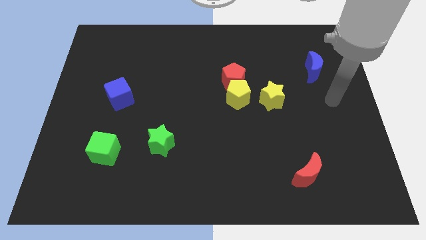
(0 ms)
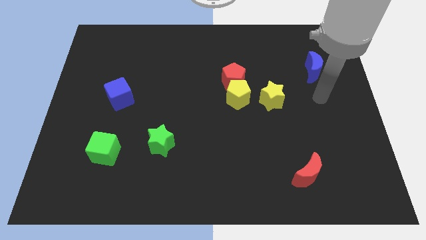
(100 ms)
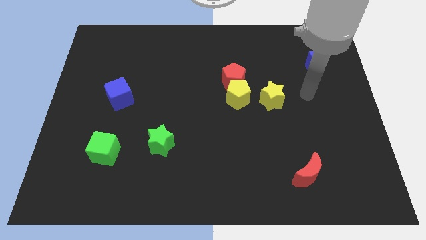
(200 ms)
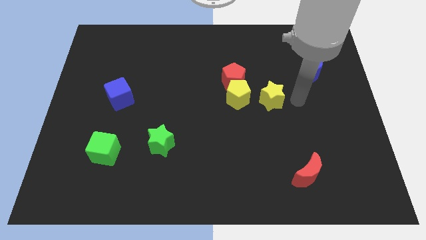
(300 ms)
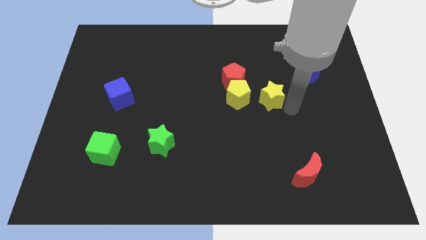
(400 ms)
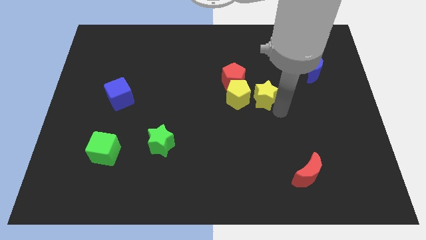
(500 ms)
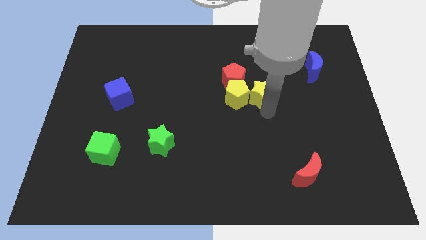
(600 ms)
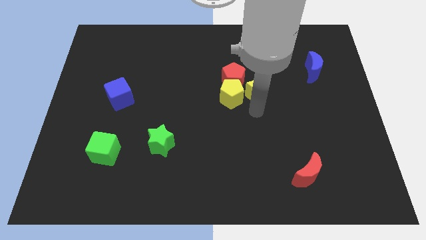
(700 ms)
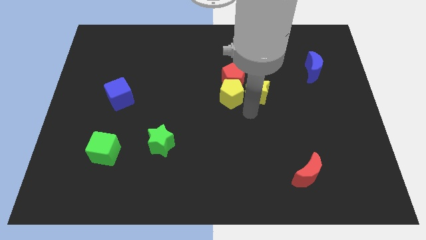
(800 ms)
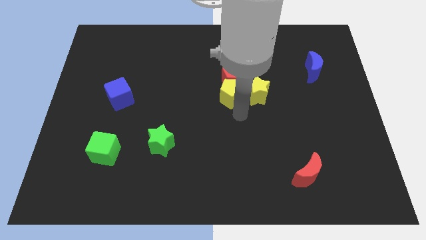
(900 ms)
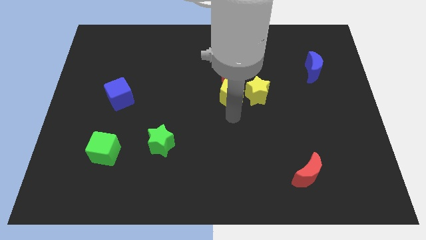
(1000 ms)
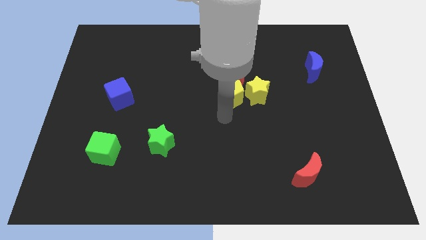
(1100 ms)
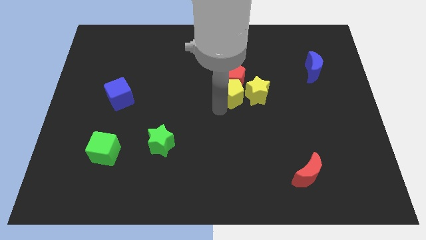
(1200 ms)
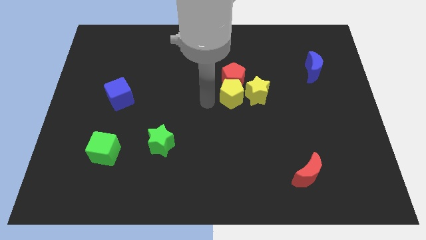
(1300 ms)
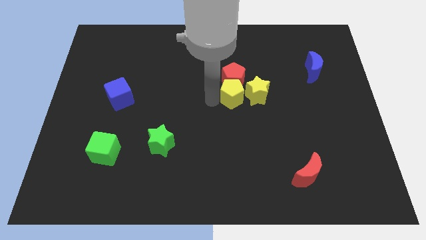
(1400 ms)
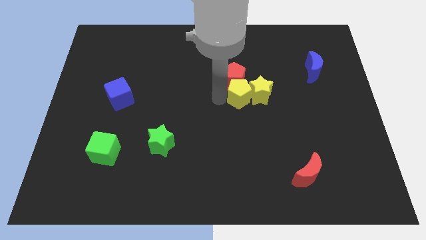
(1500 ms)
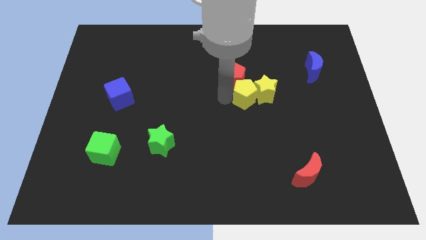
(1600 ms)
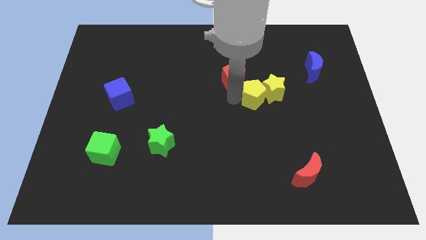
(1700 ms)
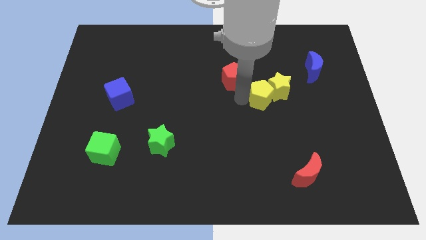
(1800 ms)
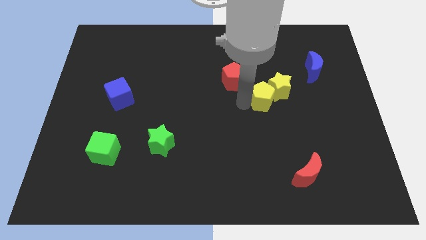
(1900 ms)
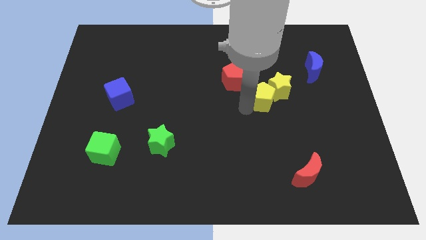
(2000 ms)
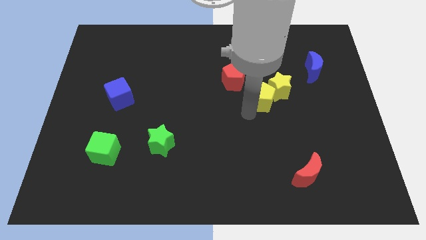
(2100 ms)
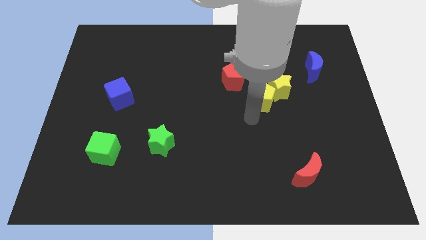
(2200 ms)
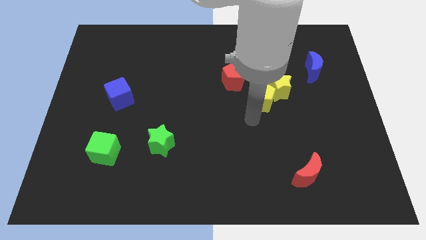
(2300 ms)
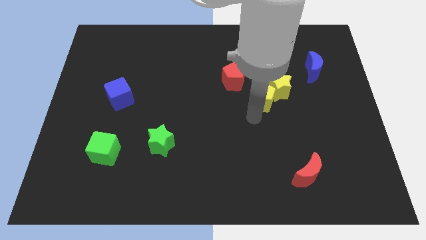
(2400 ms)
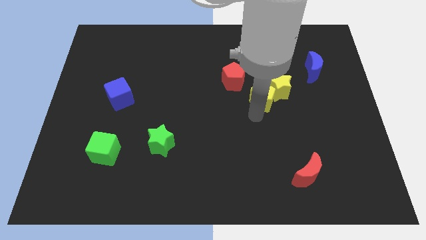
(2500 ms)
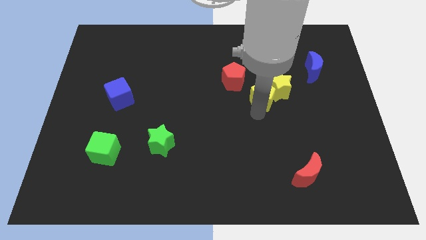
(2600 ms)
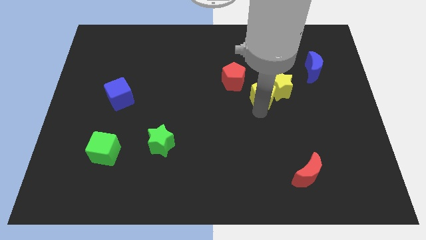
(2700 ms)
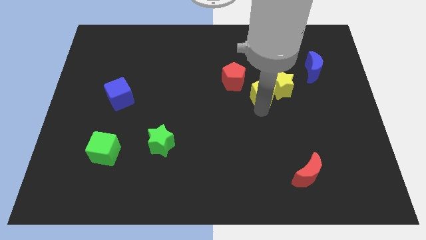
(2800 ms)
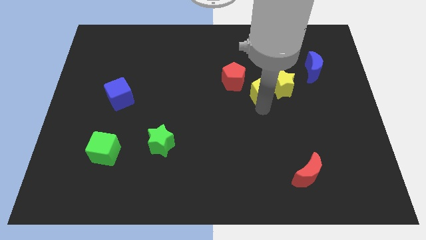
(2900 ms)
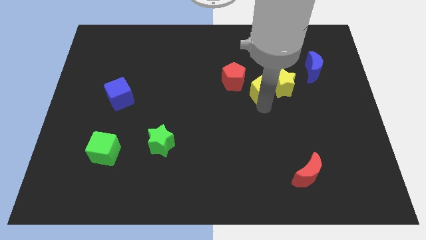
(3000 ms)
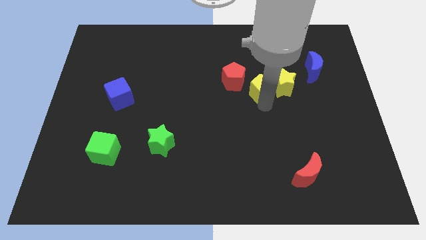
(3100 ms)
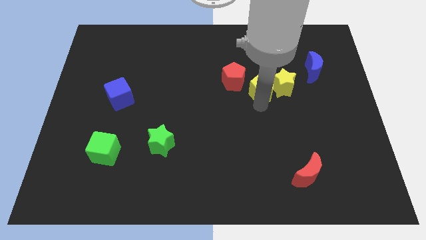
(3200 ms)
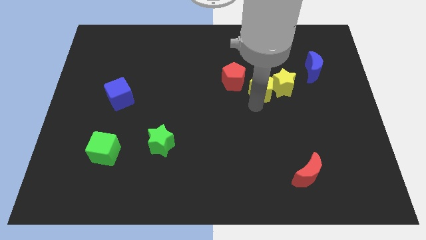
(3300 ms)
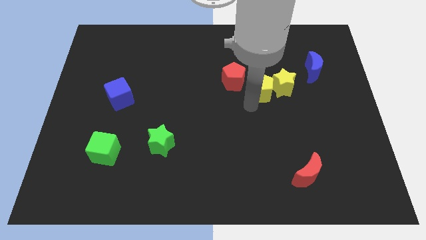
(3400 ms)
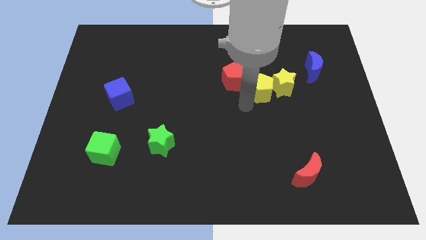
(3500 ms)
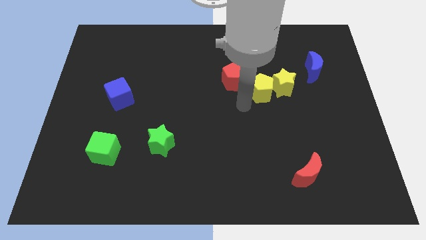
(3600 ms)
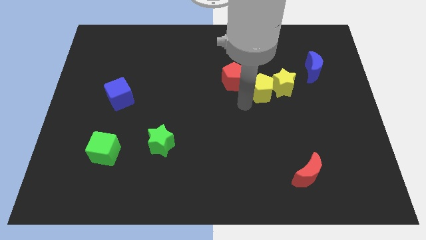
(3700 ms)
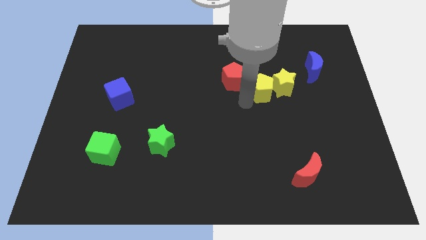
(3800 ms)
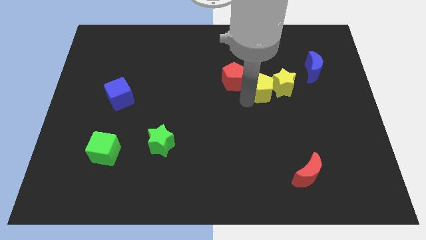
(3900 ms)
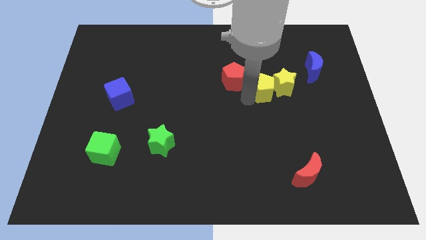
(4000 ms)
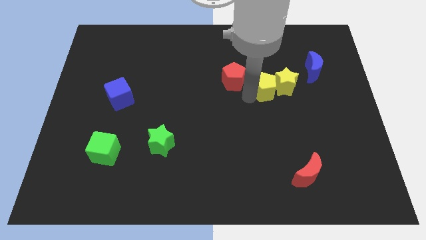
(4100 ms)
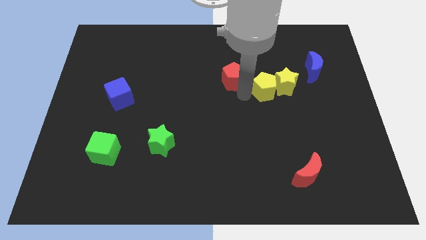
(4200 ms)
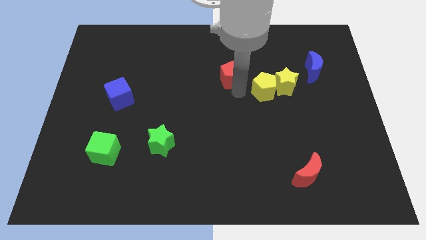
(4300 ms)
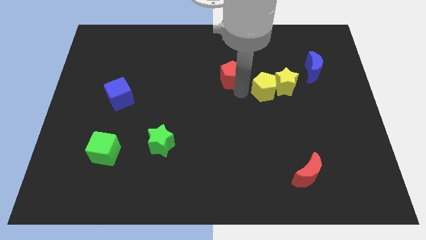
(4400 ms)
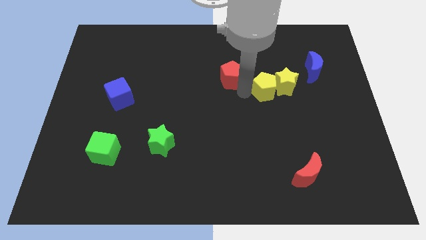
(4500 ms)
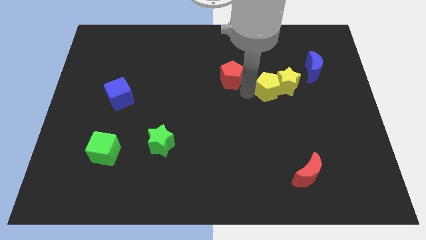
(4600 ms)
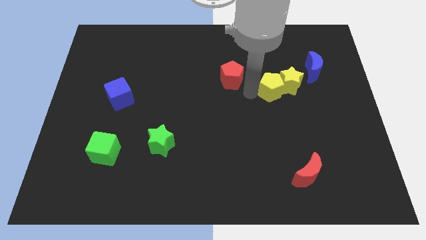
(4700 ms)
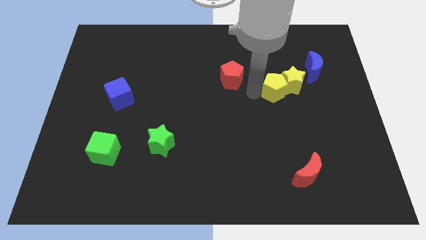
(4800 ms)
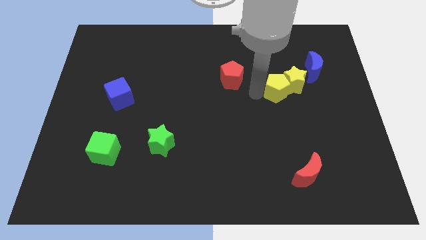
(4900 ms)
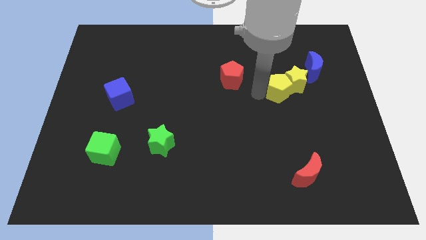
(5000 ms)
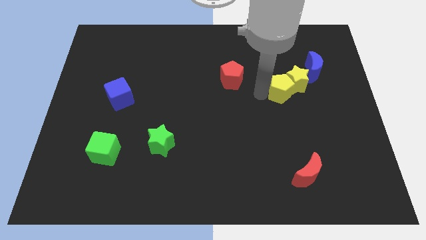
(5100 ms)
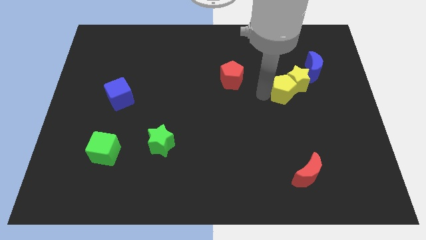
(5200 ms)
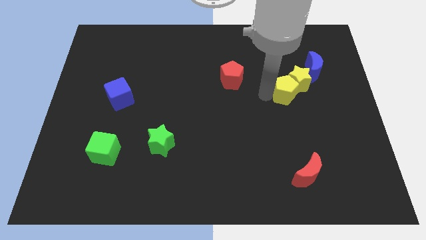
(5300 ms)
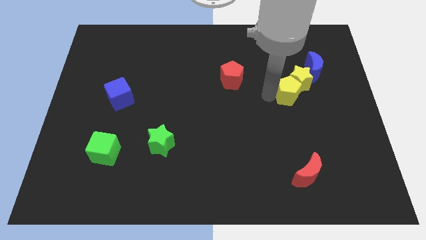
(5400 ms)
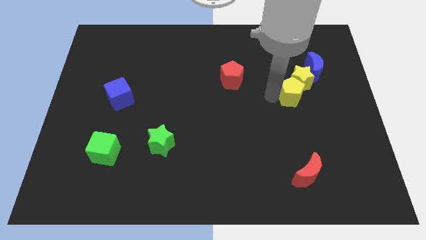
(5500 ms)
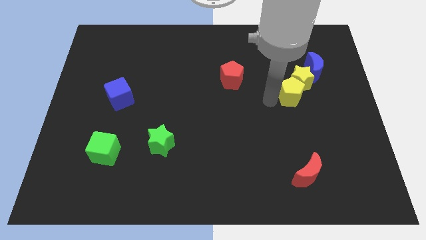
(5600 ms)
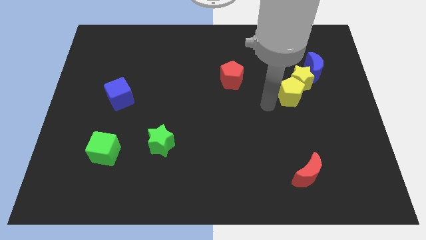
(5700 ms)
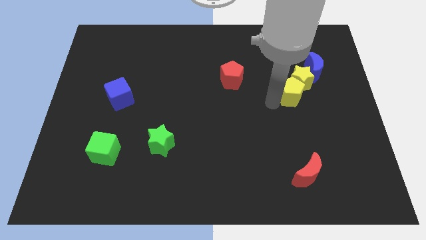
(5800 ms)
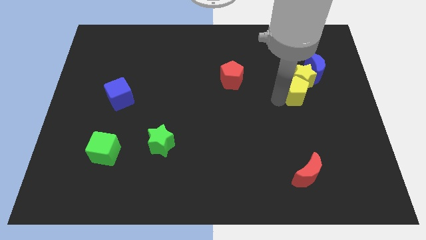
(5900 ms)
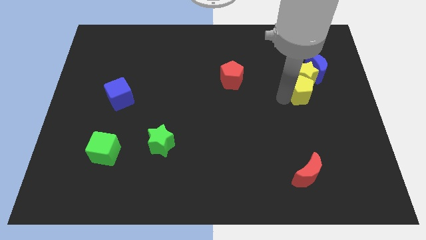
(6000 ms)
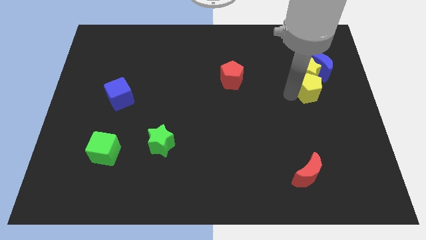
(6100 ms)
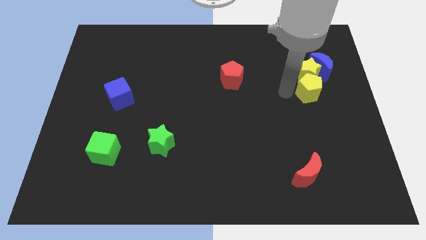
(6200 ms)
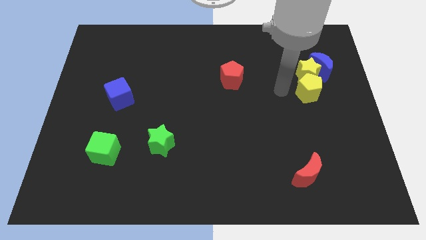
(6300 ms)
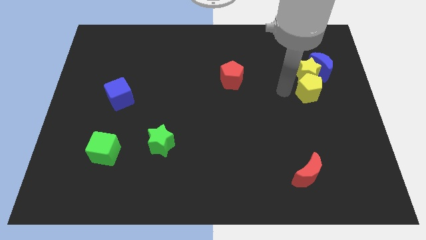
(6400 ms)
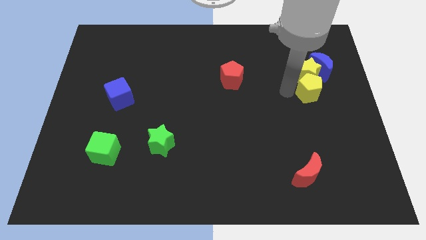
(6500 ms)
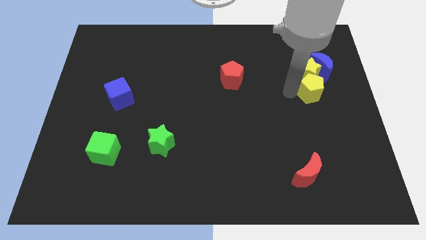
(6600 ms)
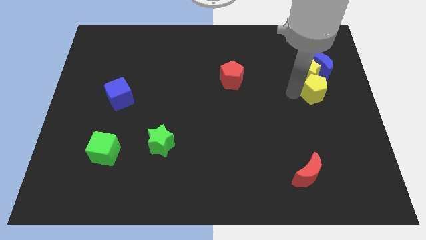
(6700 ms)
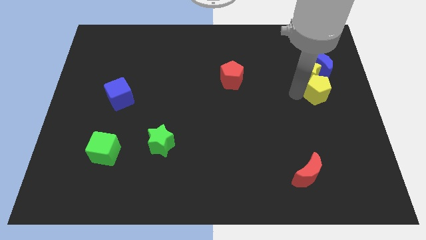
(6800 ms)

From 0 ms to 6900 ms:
slide the yellow pentagon to the right side
